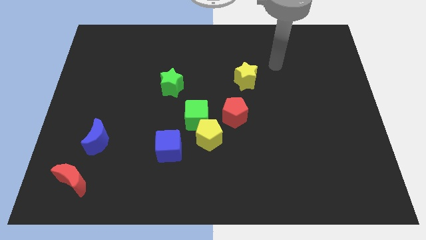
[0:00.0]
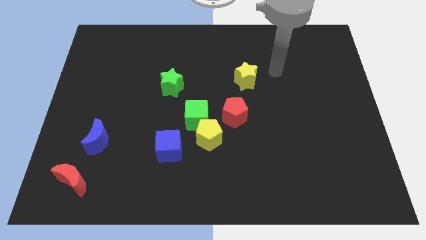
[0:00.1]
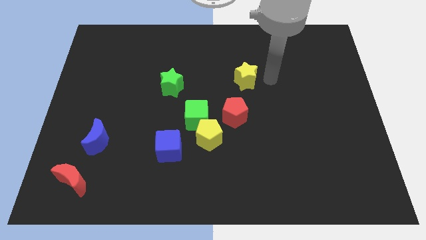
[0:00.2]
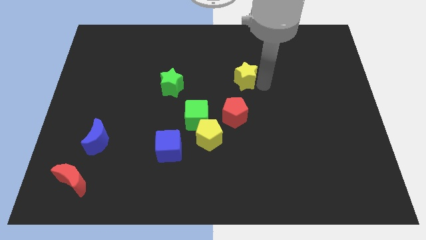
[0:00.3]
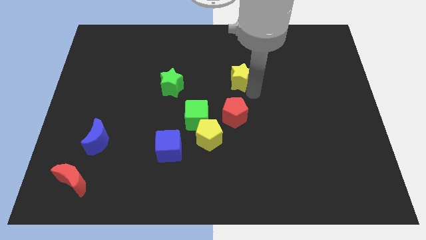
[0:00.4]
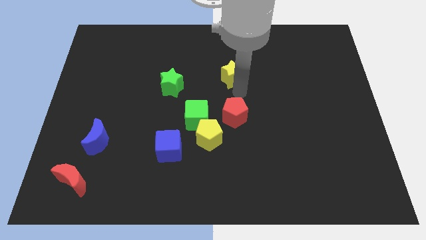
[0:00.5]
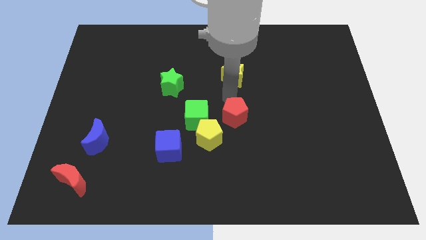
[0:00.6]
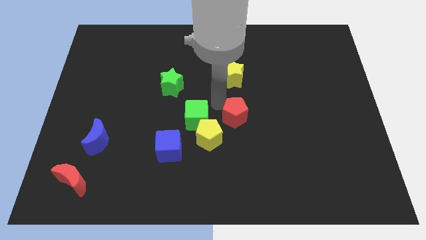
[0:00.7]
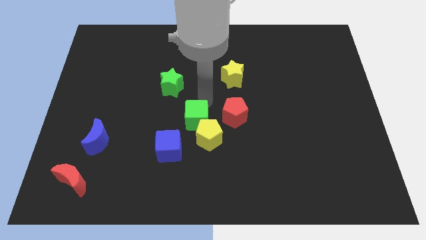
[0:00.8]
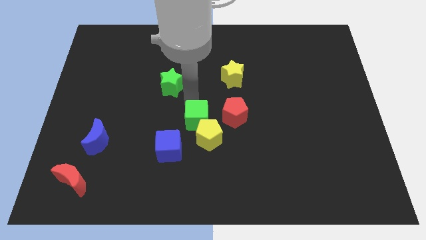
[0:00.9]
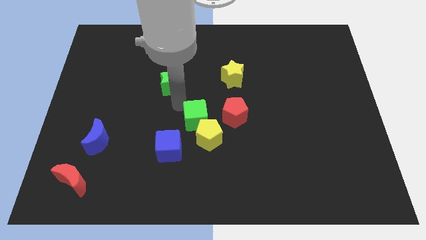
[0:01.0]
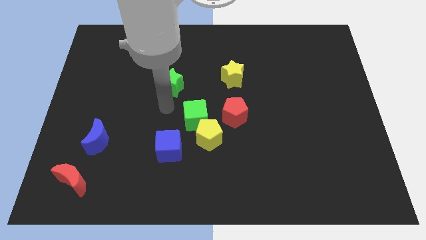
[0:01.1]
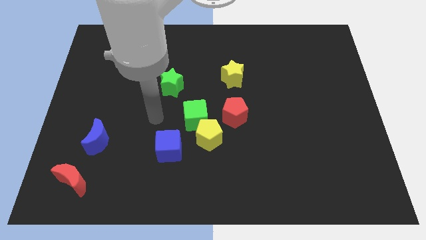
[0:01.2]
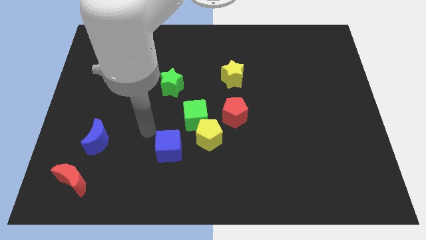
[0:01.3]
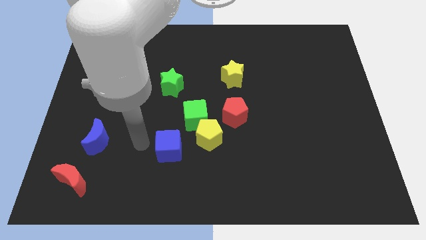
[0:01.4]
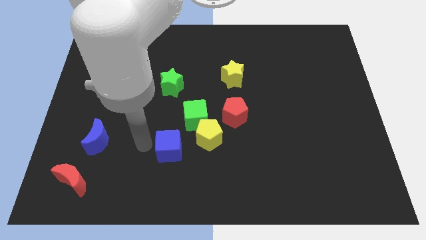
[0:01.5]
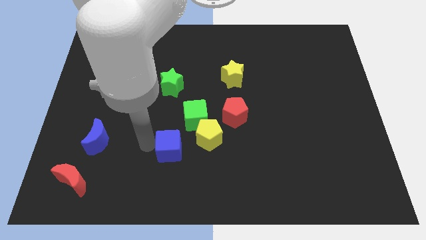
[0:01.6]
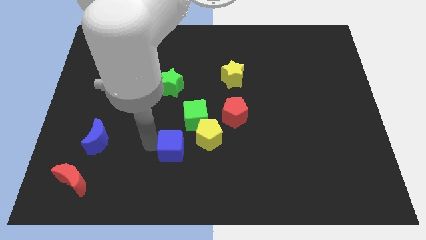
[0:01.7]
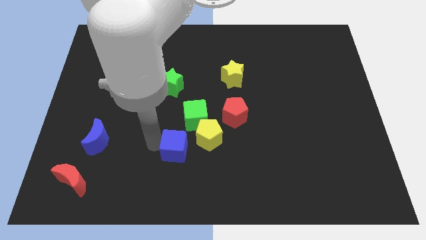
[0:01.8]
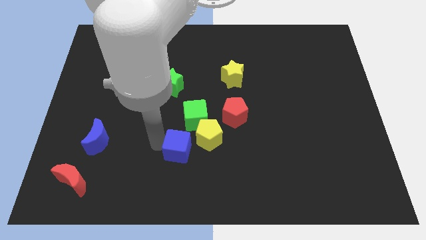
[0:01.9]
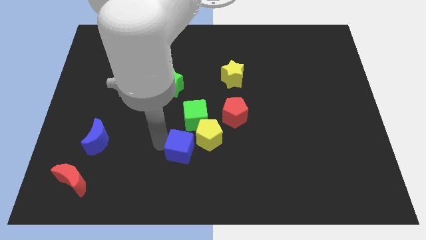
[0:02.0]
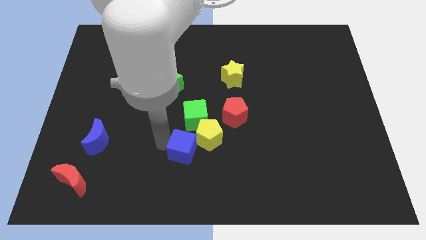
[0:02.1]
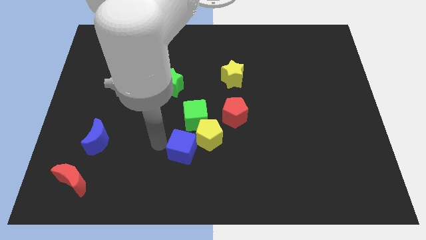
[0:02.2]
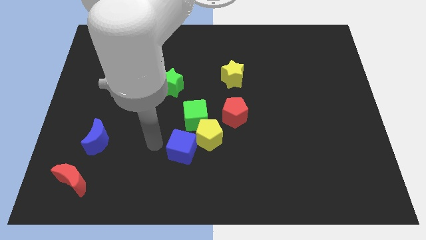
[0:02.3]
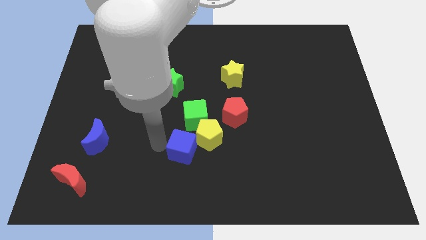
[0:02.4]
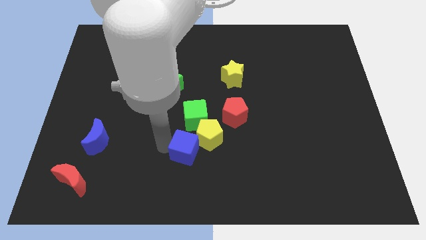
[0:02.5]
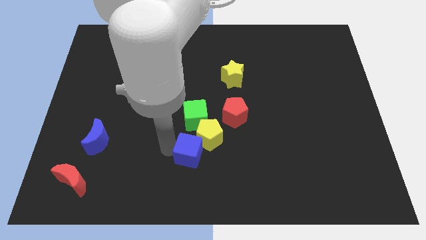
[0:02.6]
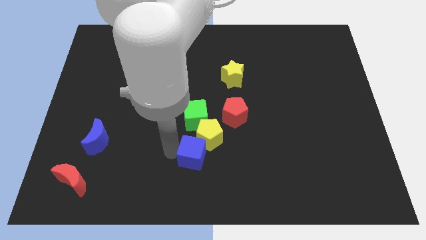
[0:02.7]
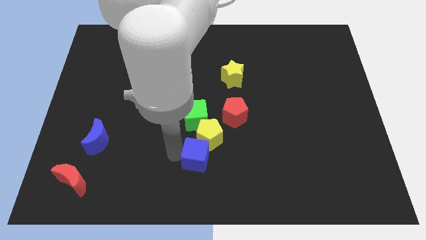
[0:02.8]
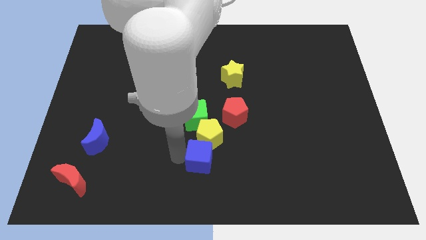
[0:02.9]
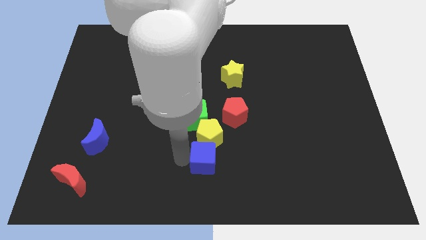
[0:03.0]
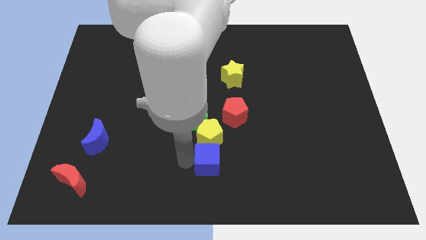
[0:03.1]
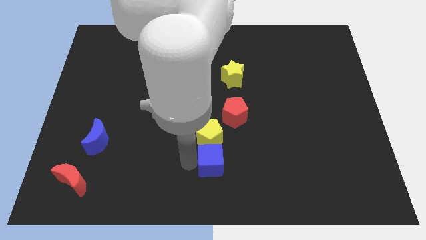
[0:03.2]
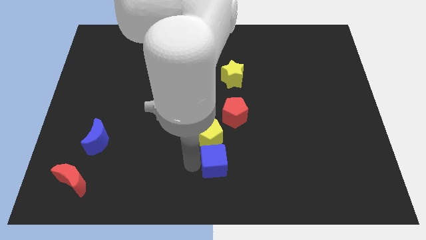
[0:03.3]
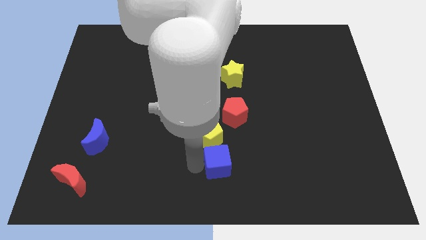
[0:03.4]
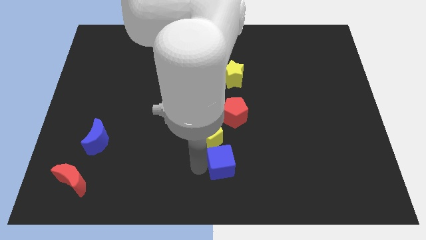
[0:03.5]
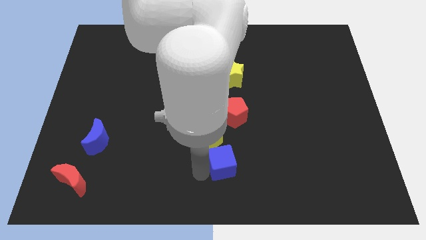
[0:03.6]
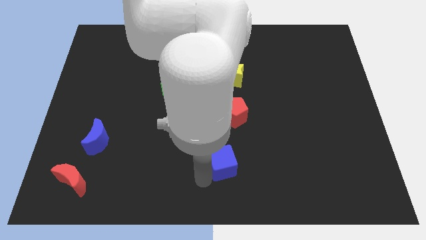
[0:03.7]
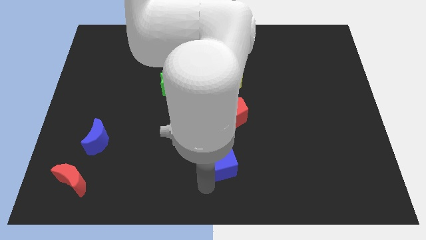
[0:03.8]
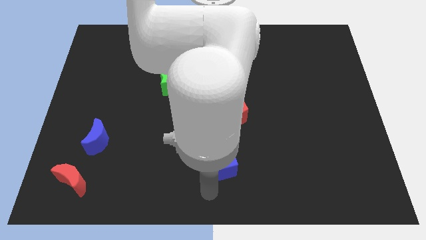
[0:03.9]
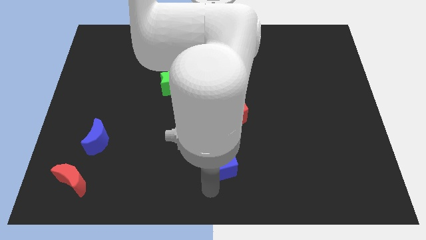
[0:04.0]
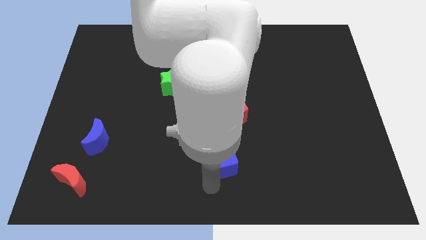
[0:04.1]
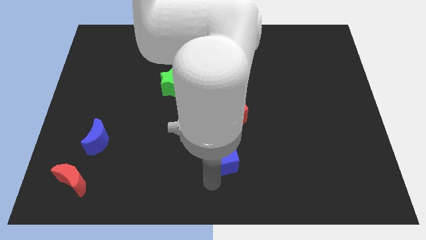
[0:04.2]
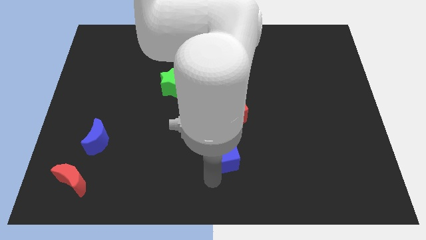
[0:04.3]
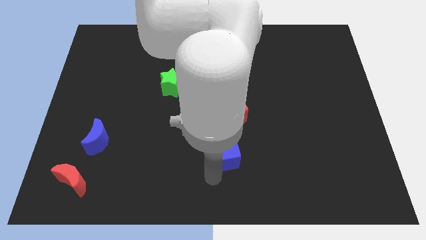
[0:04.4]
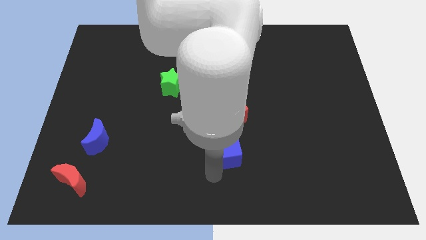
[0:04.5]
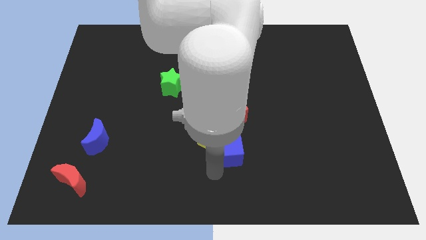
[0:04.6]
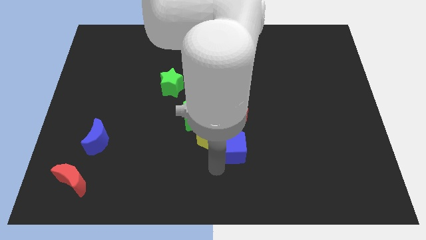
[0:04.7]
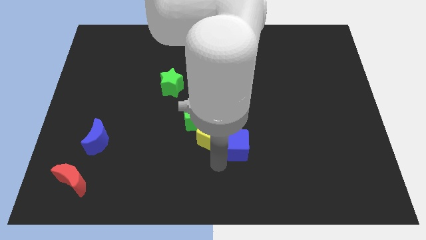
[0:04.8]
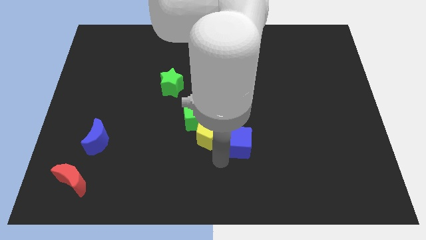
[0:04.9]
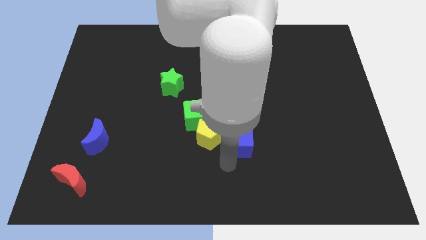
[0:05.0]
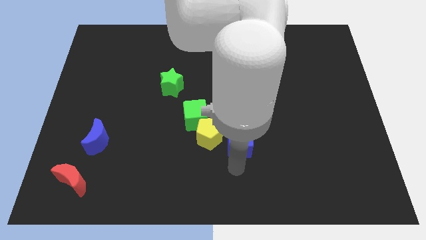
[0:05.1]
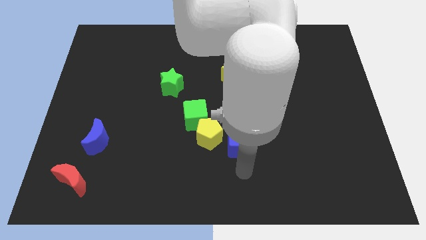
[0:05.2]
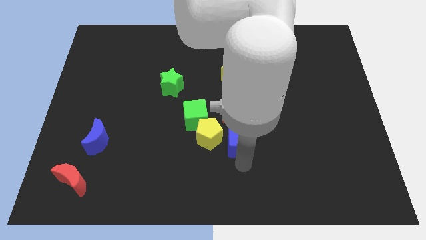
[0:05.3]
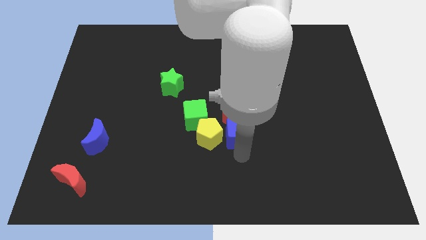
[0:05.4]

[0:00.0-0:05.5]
push the blue cube towards the red pentagon

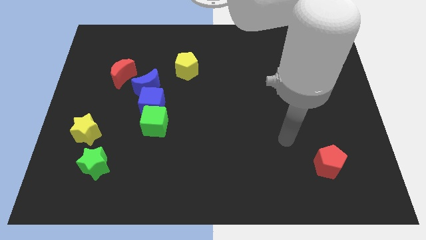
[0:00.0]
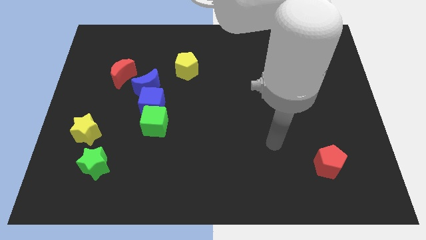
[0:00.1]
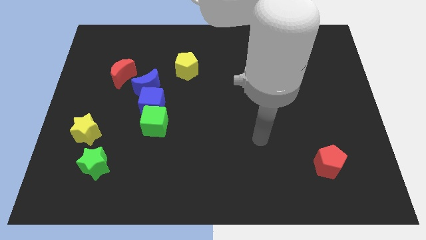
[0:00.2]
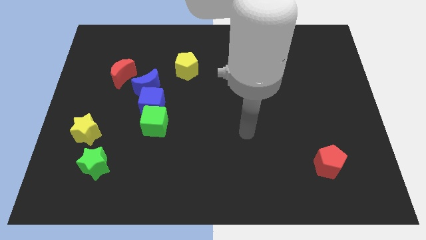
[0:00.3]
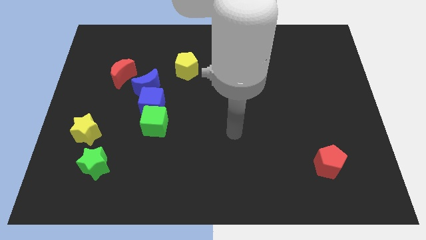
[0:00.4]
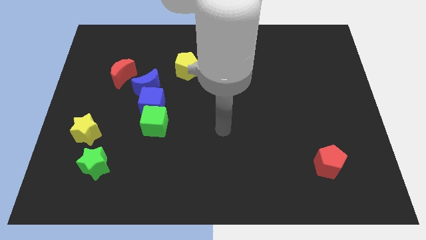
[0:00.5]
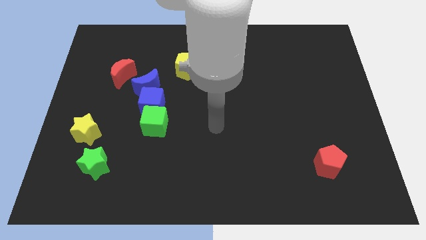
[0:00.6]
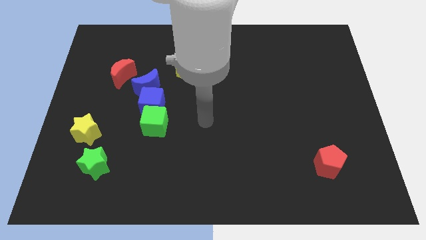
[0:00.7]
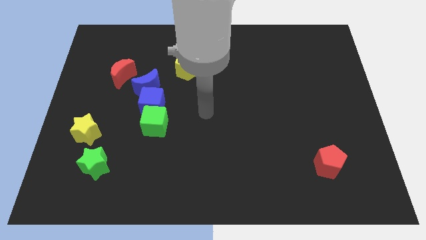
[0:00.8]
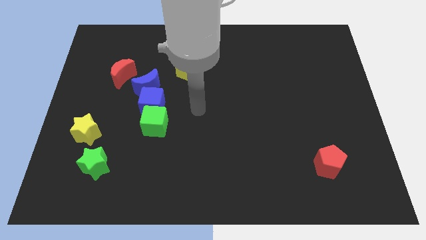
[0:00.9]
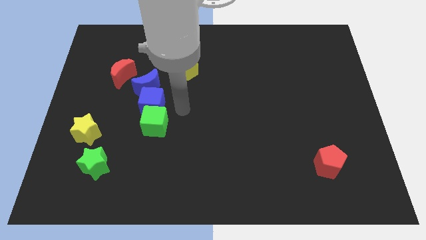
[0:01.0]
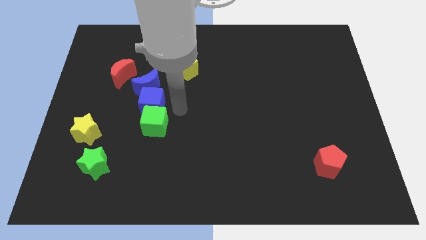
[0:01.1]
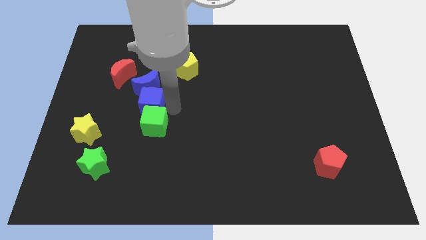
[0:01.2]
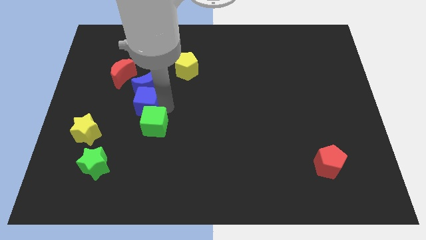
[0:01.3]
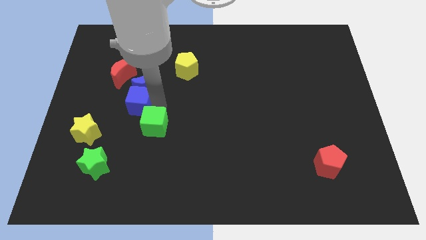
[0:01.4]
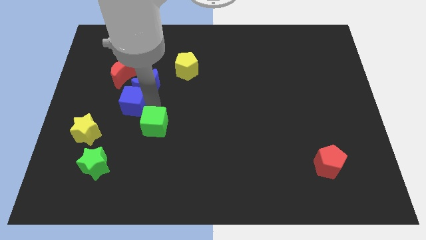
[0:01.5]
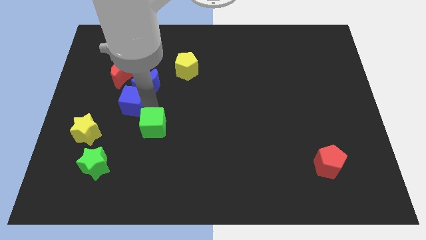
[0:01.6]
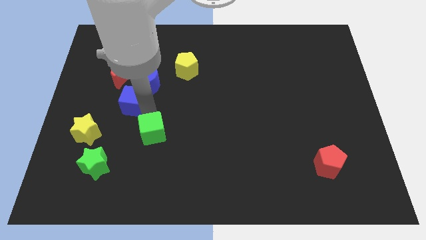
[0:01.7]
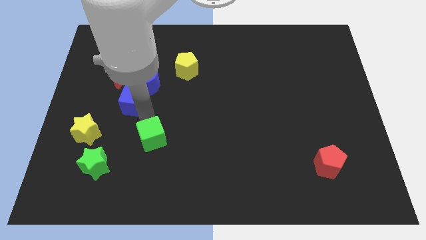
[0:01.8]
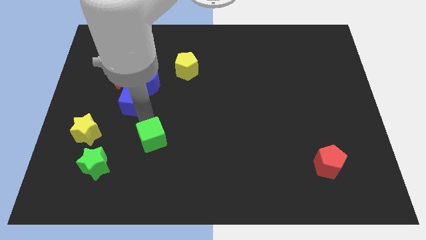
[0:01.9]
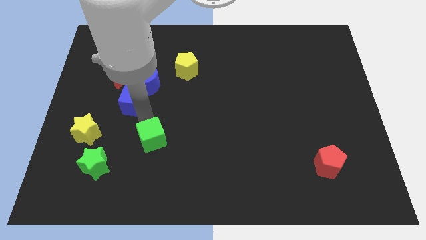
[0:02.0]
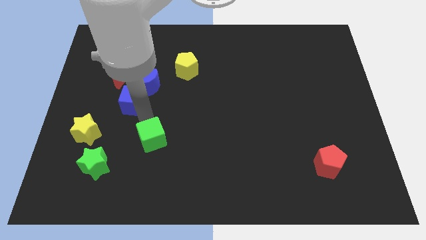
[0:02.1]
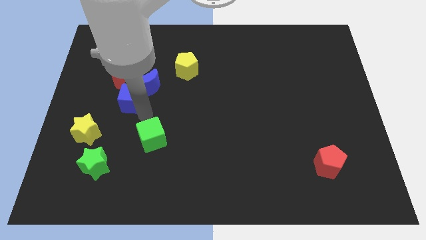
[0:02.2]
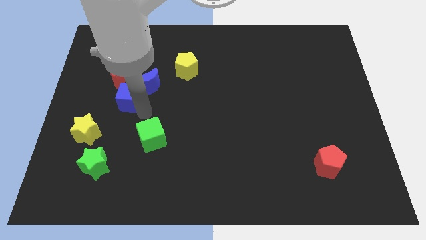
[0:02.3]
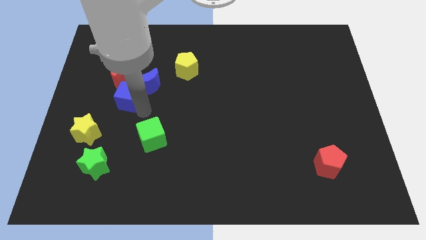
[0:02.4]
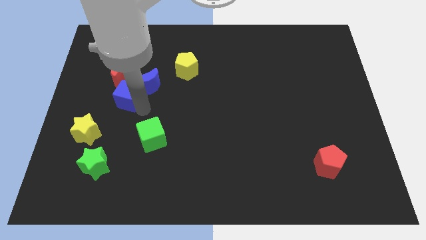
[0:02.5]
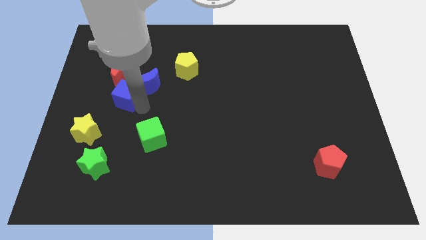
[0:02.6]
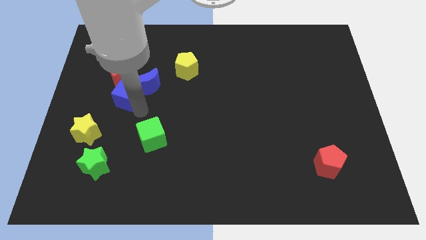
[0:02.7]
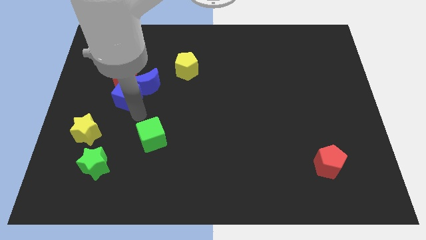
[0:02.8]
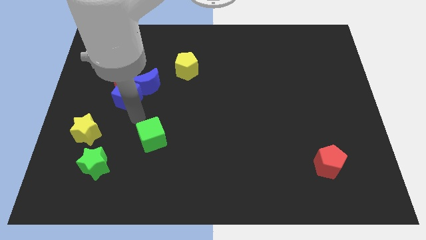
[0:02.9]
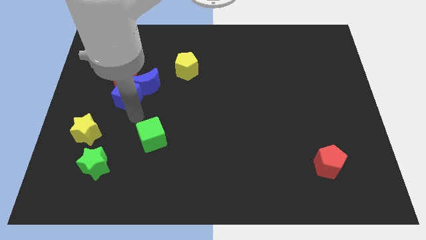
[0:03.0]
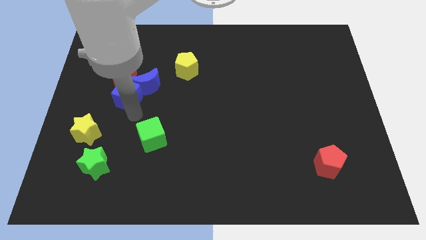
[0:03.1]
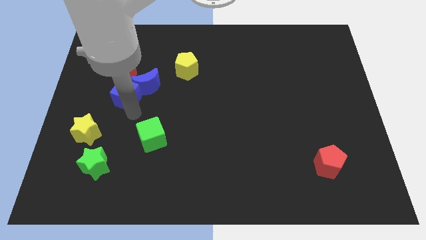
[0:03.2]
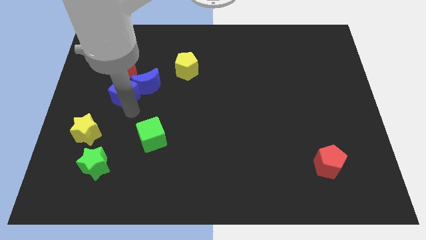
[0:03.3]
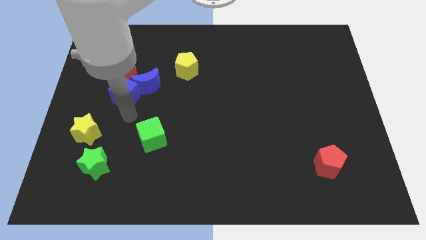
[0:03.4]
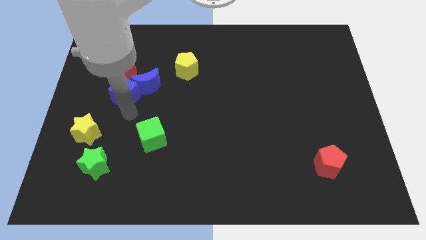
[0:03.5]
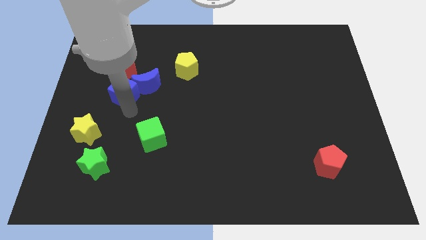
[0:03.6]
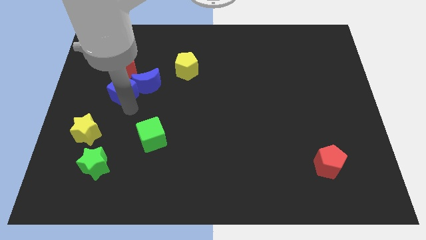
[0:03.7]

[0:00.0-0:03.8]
put the blue cube close to the red moon
